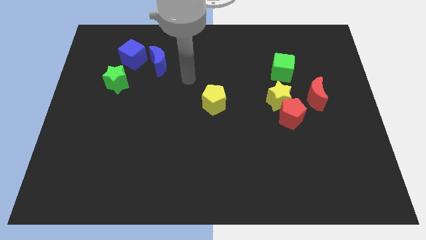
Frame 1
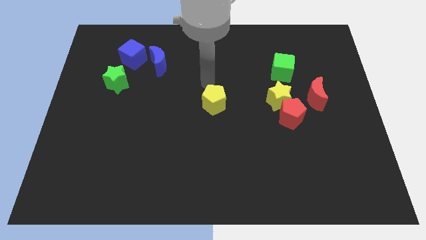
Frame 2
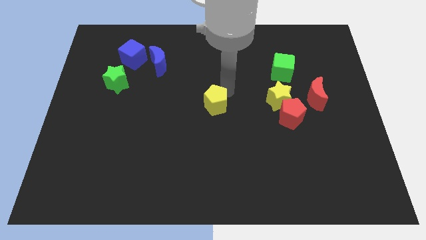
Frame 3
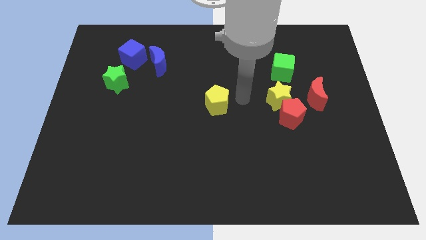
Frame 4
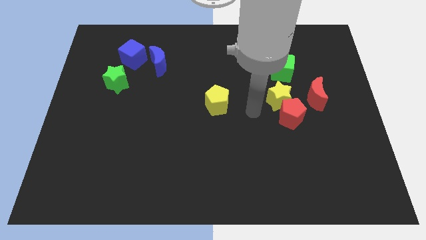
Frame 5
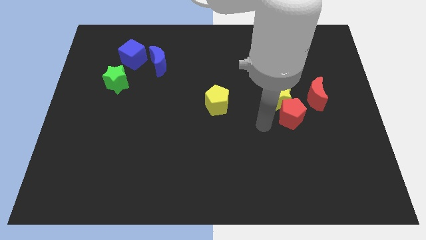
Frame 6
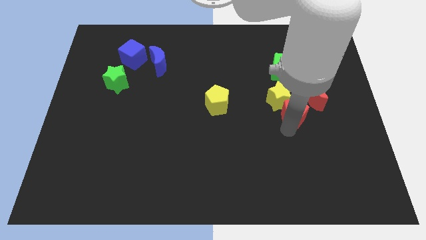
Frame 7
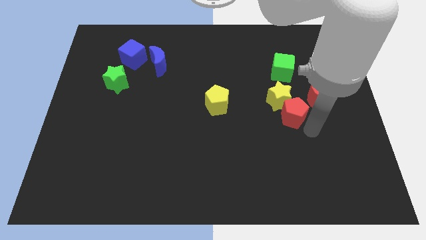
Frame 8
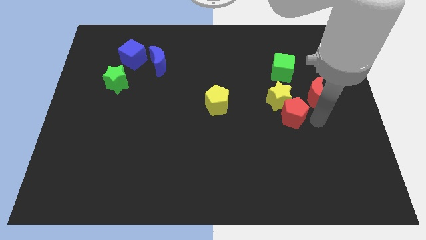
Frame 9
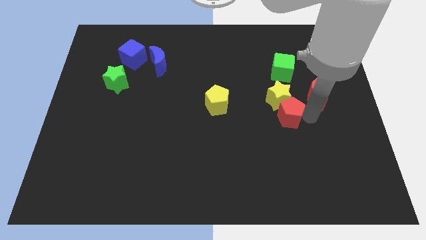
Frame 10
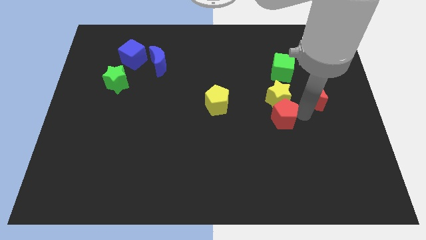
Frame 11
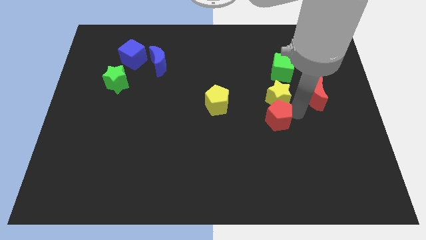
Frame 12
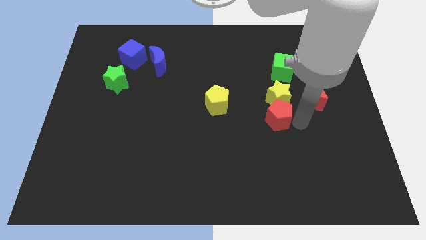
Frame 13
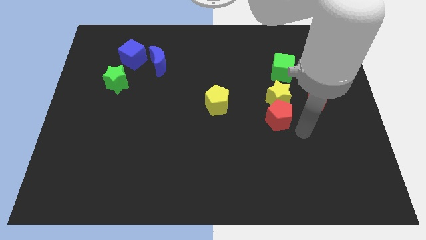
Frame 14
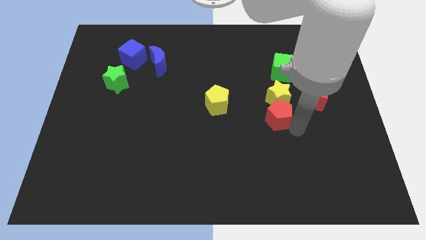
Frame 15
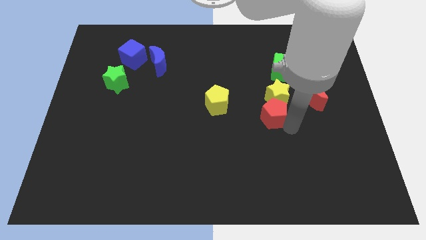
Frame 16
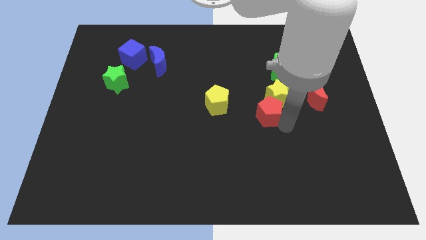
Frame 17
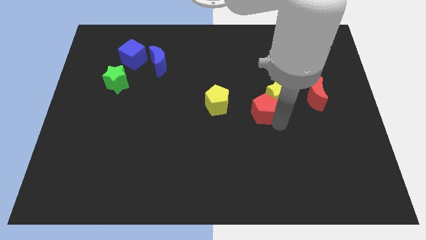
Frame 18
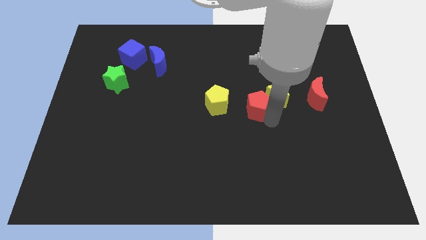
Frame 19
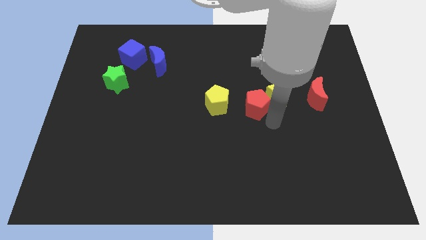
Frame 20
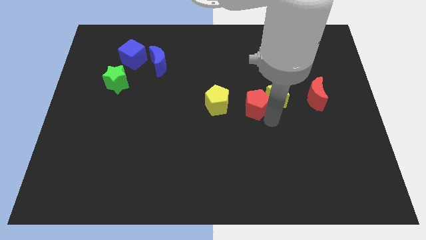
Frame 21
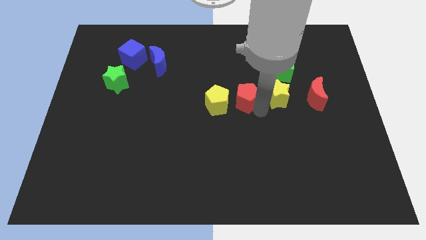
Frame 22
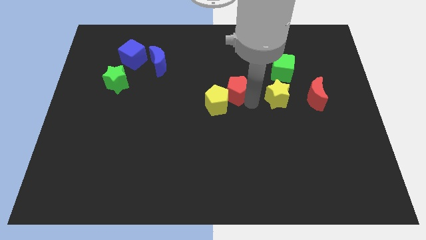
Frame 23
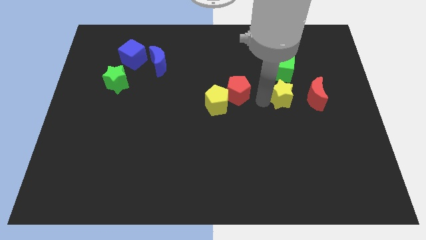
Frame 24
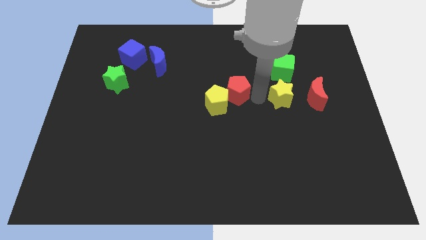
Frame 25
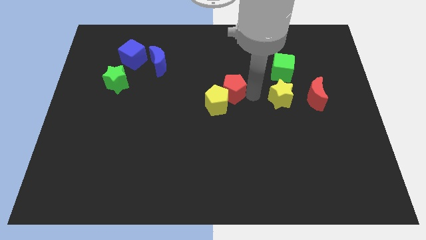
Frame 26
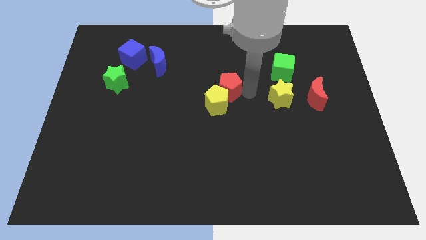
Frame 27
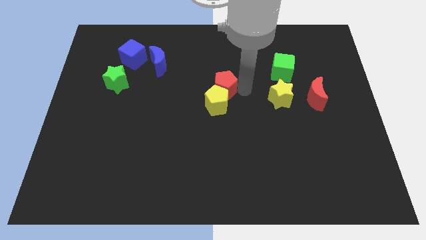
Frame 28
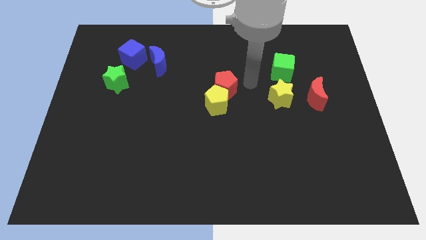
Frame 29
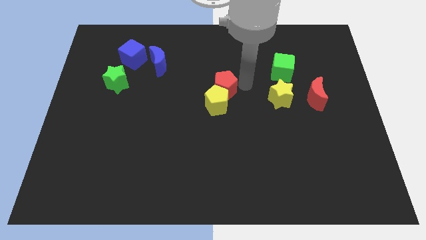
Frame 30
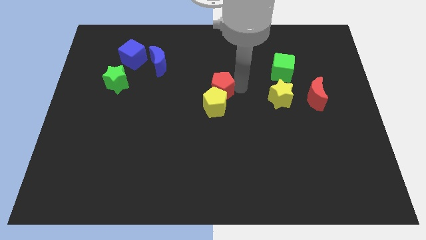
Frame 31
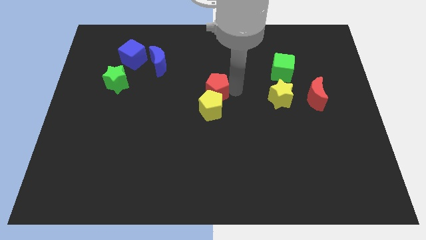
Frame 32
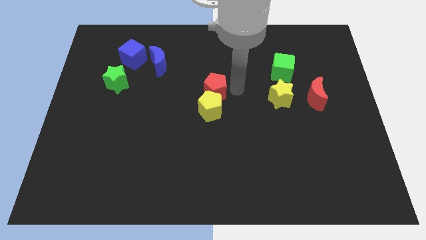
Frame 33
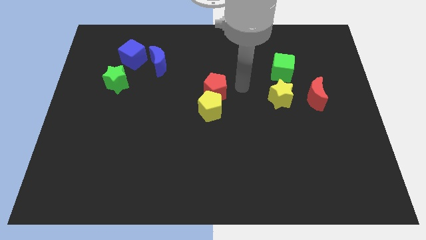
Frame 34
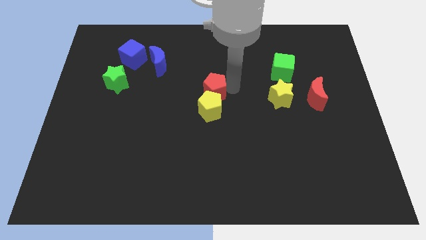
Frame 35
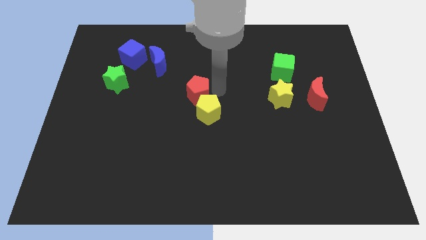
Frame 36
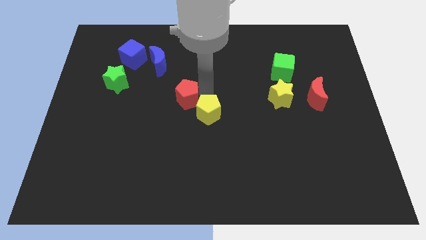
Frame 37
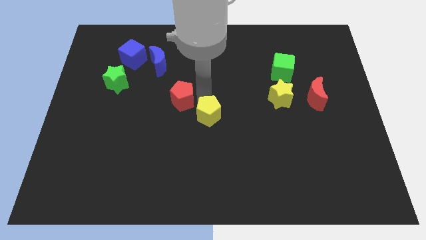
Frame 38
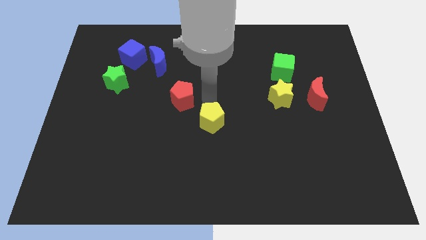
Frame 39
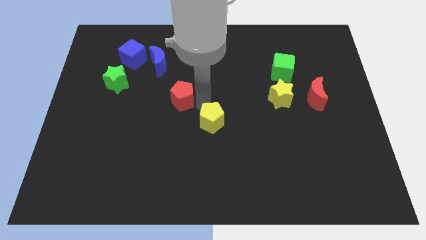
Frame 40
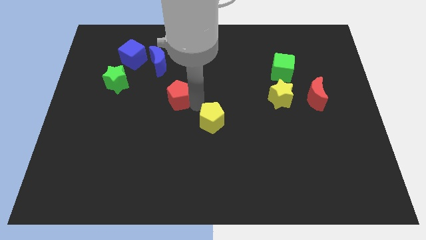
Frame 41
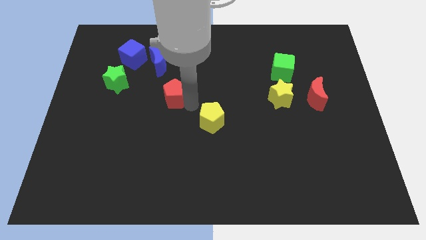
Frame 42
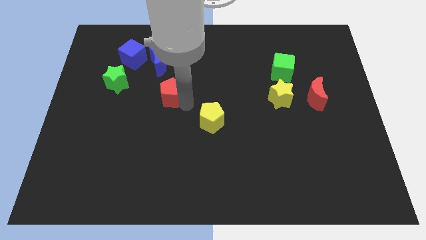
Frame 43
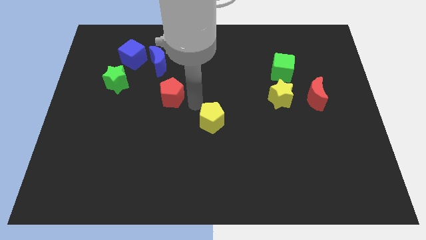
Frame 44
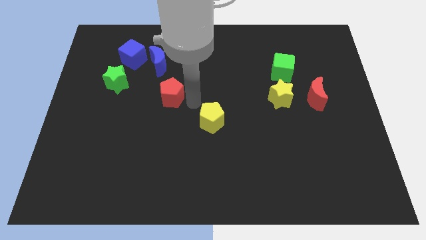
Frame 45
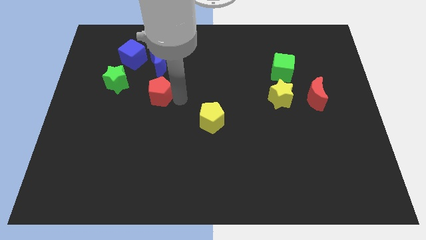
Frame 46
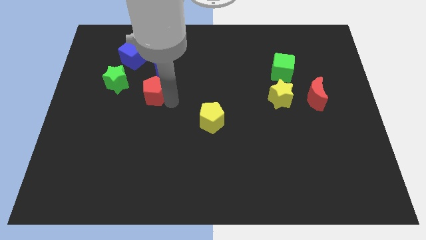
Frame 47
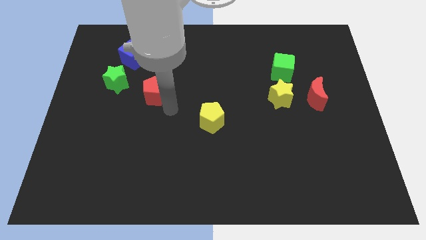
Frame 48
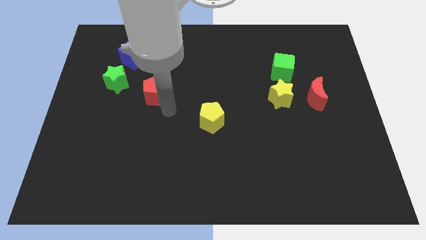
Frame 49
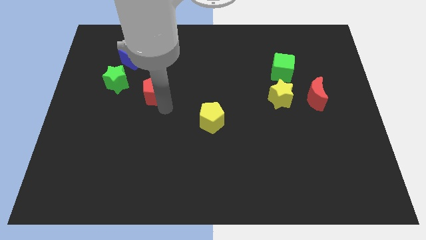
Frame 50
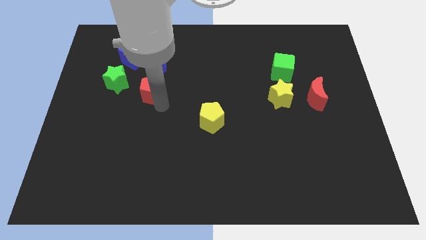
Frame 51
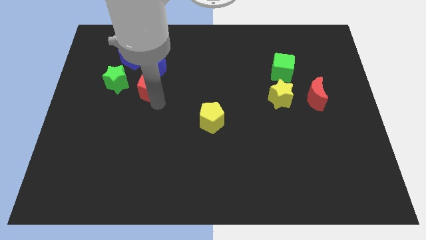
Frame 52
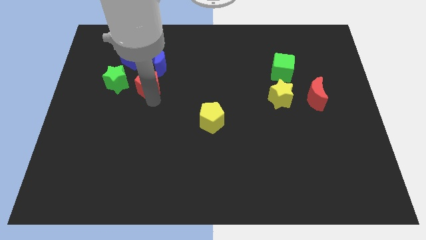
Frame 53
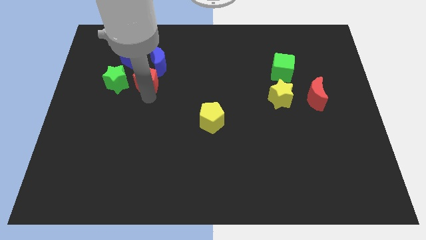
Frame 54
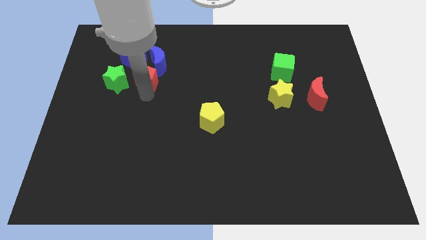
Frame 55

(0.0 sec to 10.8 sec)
move the red pentagon to the top right side of the green star

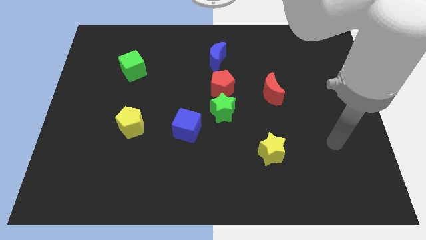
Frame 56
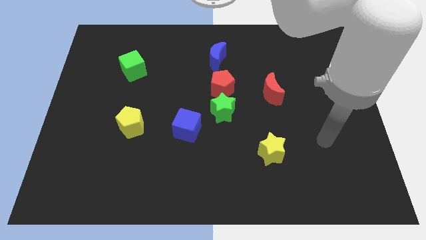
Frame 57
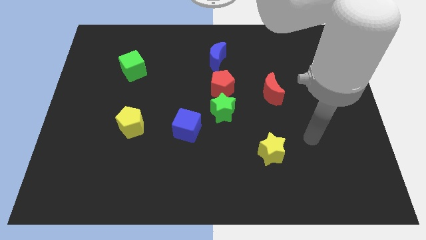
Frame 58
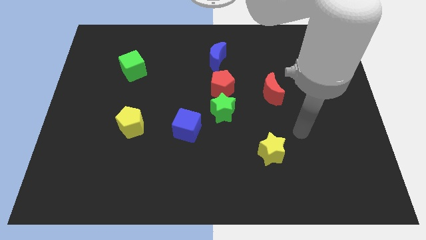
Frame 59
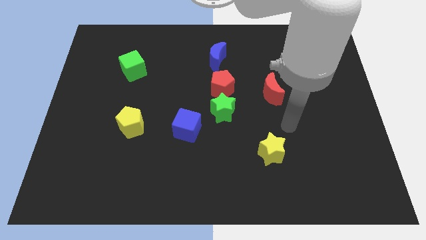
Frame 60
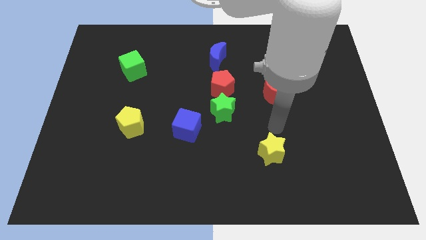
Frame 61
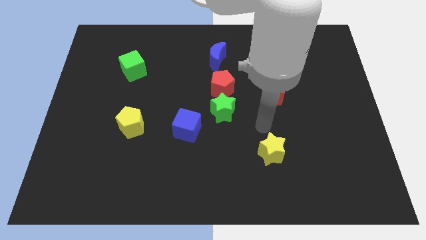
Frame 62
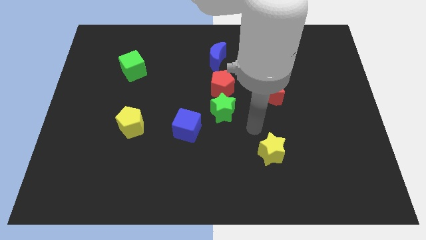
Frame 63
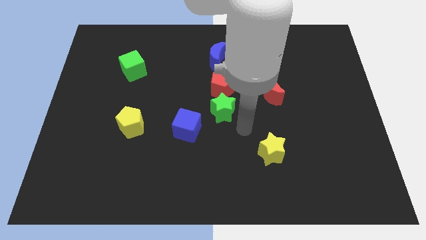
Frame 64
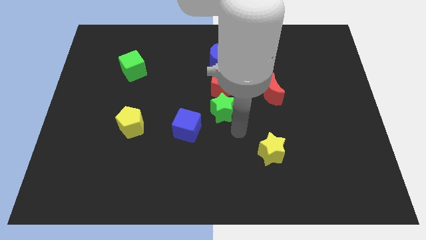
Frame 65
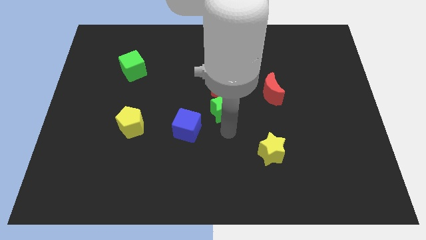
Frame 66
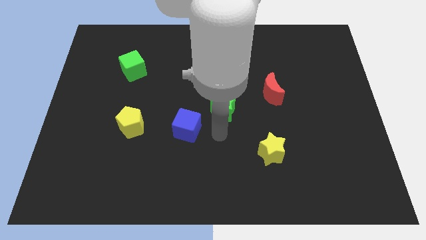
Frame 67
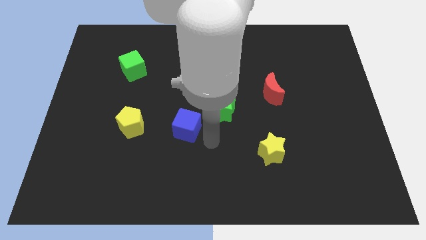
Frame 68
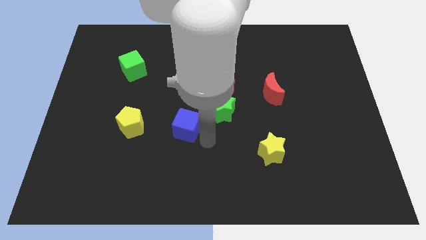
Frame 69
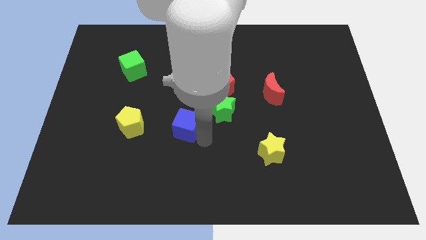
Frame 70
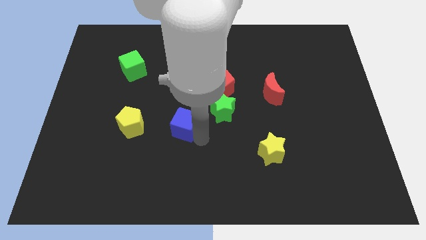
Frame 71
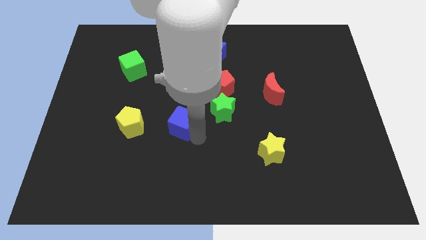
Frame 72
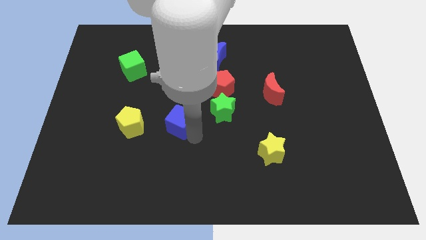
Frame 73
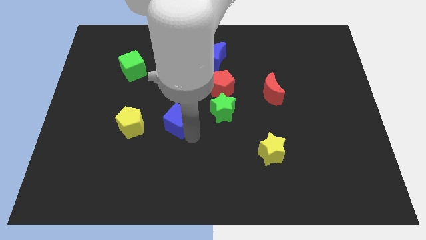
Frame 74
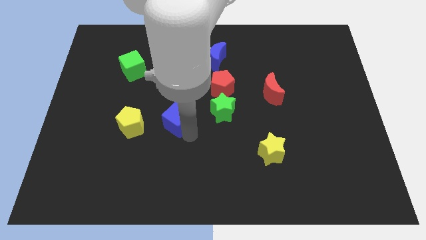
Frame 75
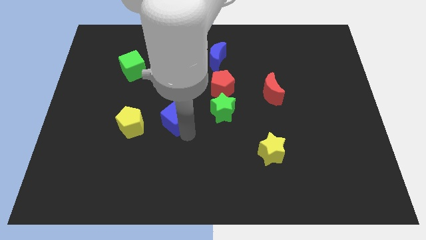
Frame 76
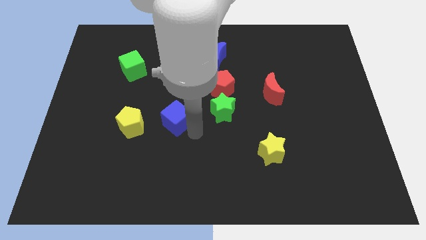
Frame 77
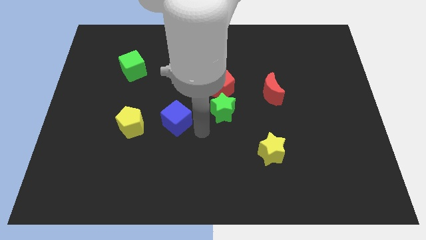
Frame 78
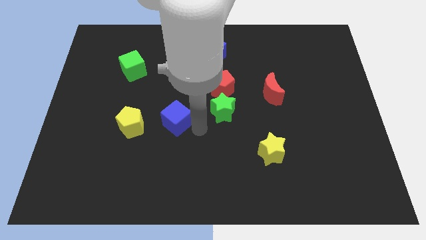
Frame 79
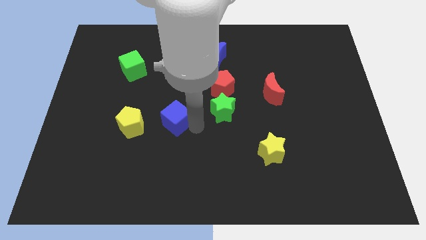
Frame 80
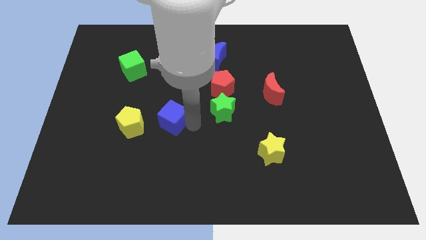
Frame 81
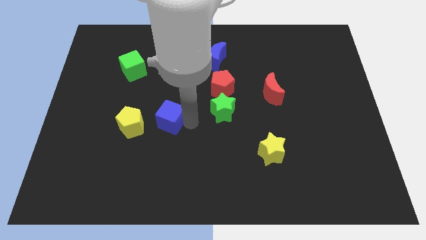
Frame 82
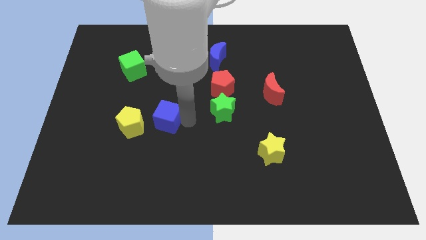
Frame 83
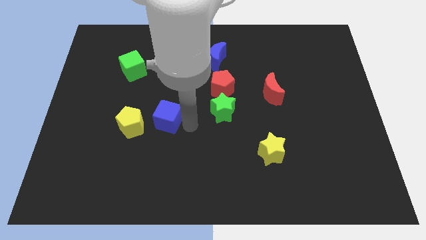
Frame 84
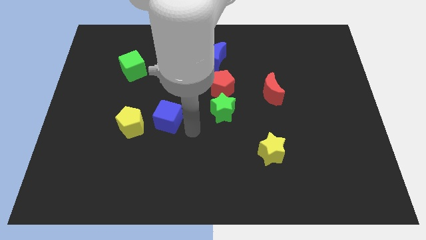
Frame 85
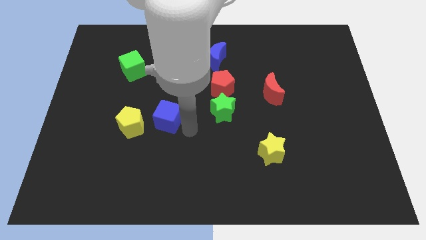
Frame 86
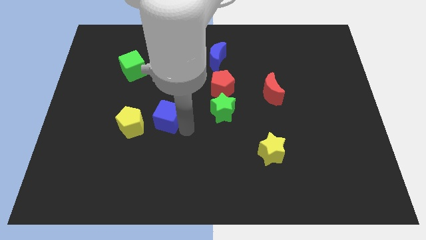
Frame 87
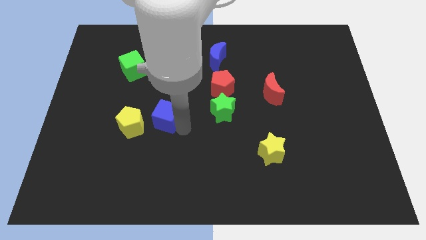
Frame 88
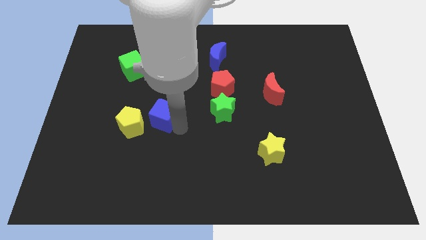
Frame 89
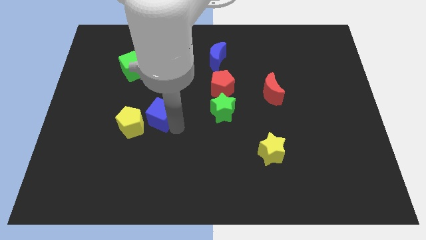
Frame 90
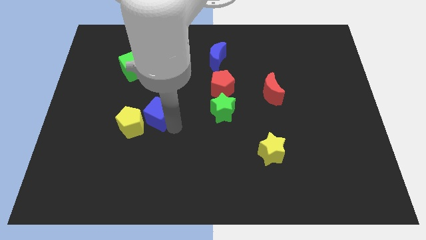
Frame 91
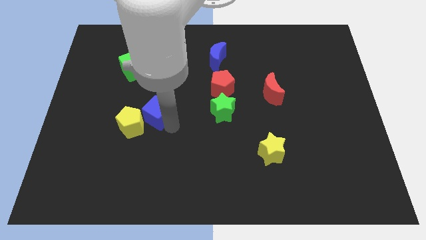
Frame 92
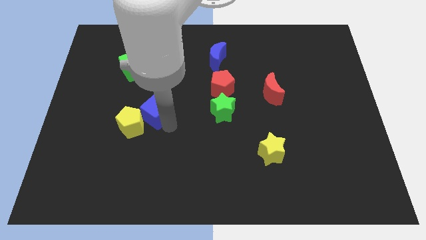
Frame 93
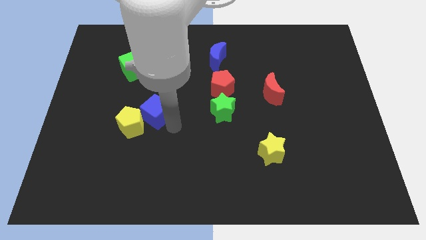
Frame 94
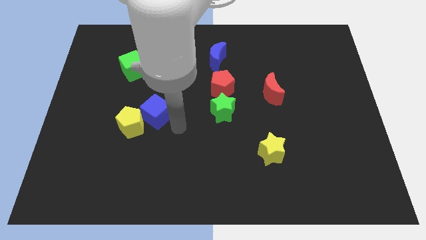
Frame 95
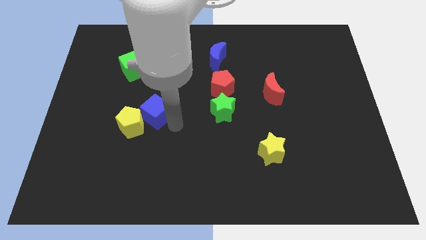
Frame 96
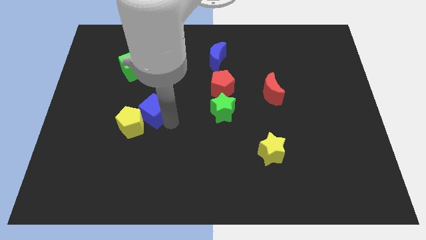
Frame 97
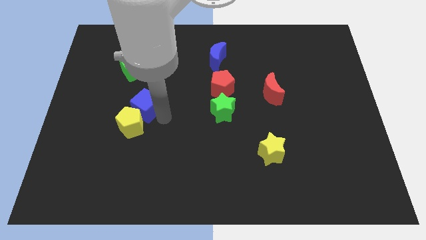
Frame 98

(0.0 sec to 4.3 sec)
push the blue cube below the green cube
